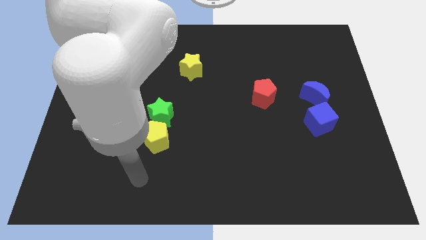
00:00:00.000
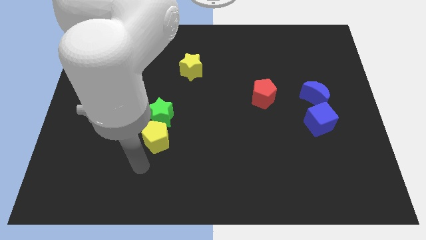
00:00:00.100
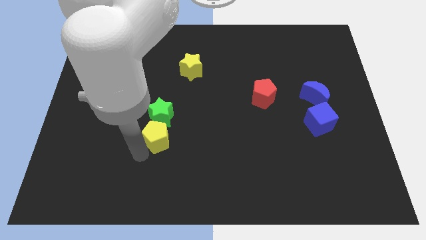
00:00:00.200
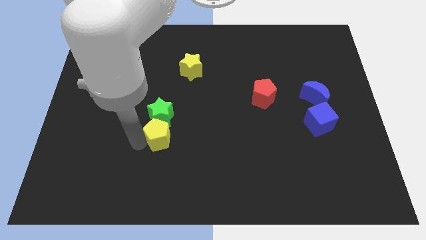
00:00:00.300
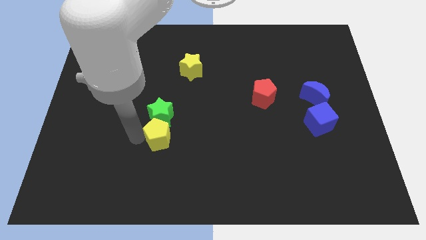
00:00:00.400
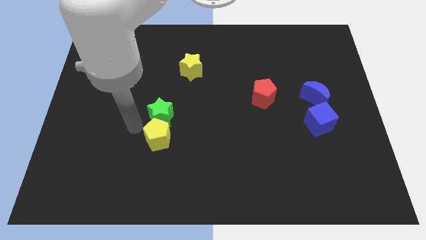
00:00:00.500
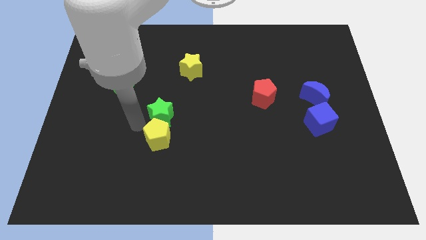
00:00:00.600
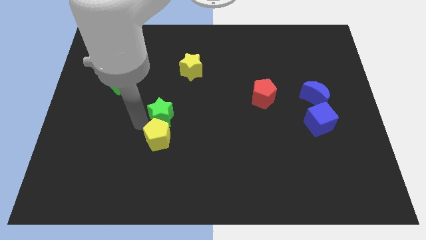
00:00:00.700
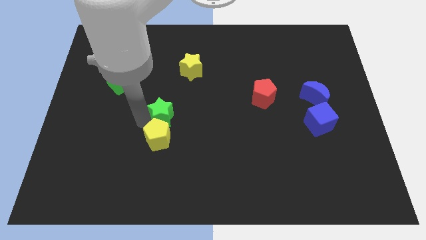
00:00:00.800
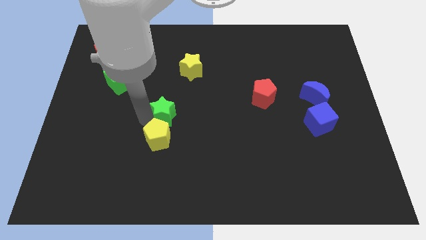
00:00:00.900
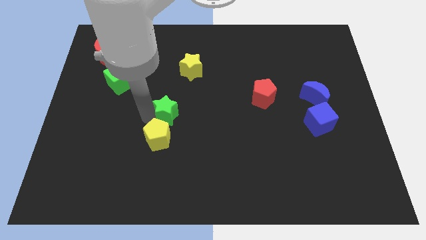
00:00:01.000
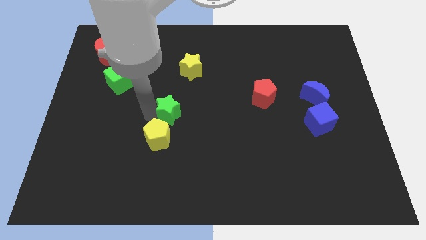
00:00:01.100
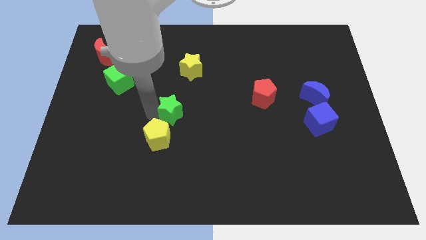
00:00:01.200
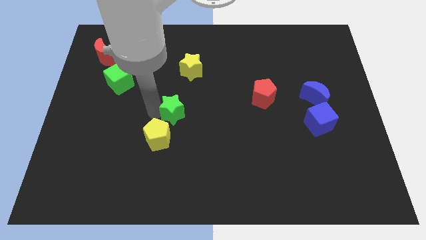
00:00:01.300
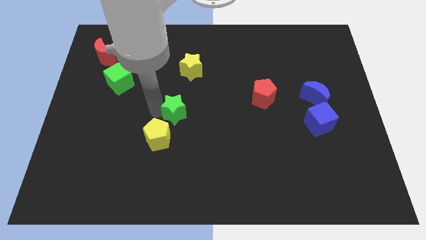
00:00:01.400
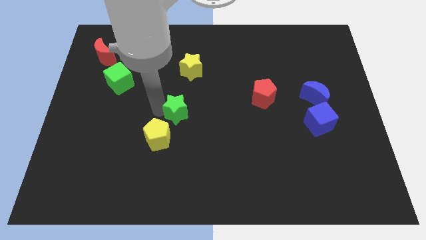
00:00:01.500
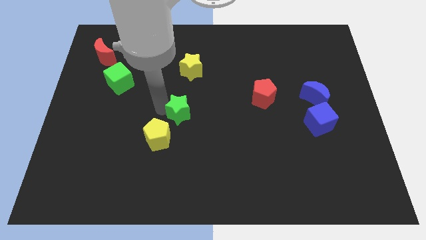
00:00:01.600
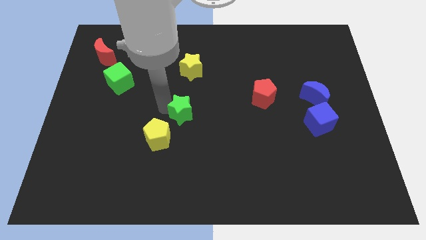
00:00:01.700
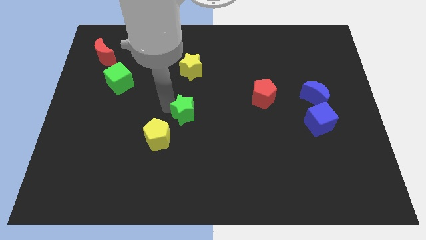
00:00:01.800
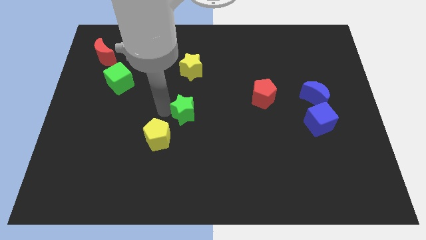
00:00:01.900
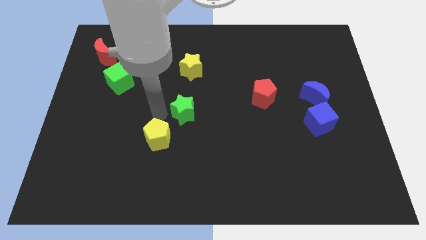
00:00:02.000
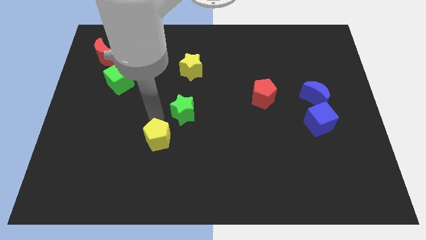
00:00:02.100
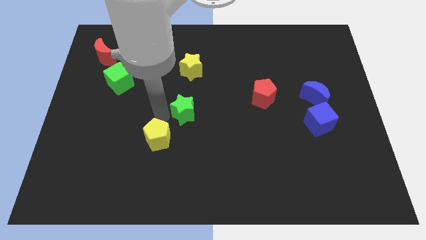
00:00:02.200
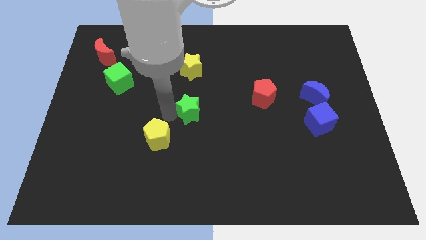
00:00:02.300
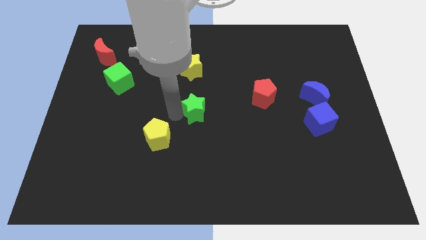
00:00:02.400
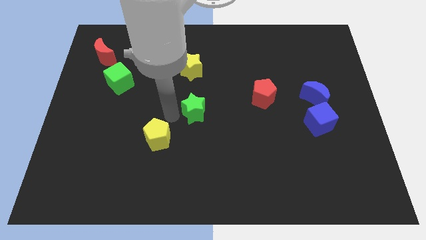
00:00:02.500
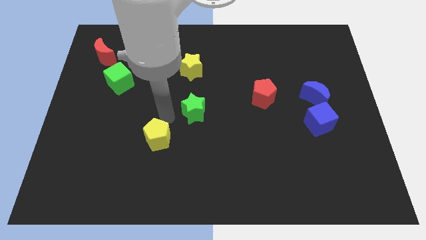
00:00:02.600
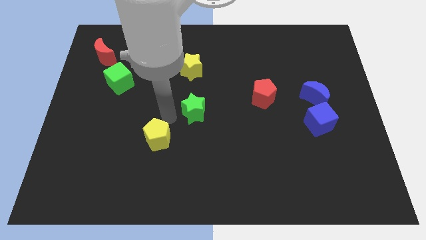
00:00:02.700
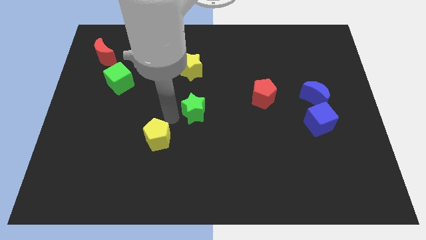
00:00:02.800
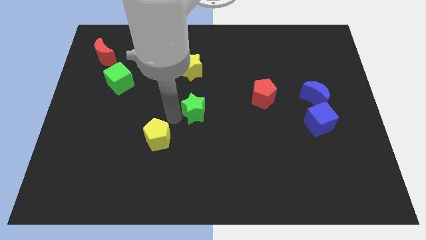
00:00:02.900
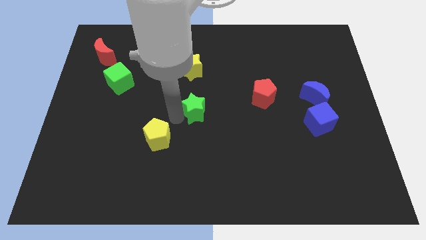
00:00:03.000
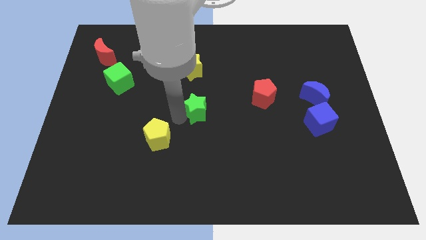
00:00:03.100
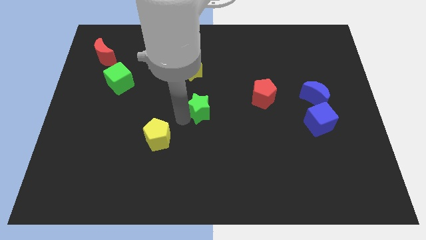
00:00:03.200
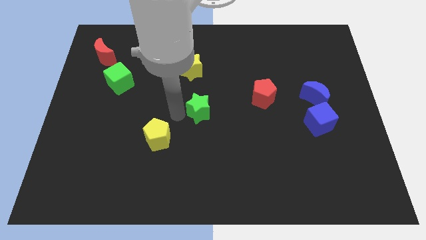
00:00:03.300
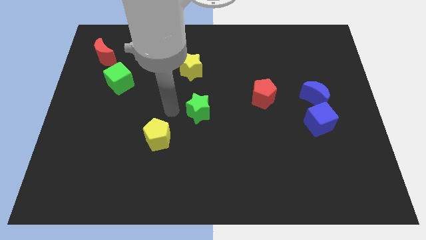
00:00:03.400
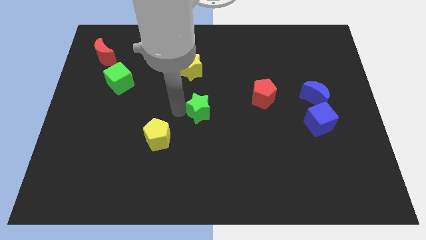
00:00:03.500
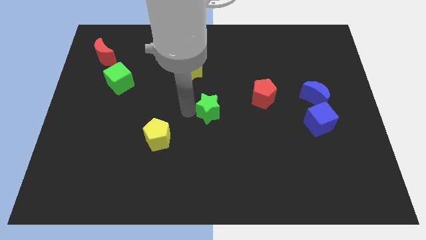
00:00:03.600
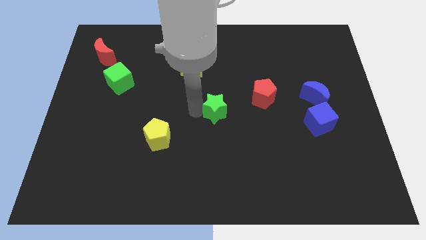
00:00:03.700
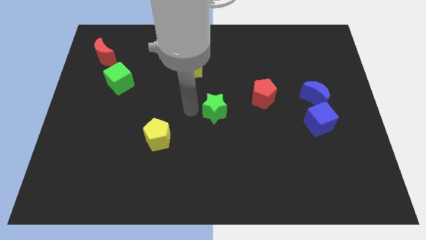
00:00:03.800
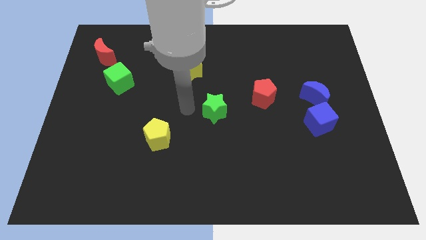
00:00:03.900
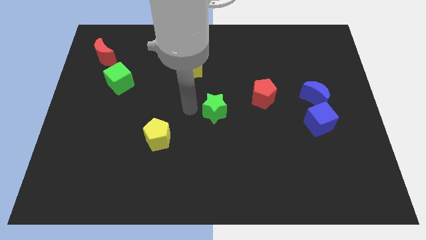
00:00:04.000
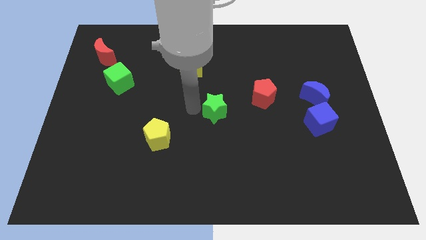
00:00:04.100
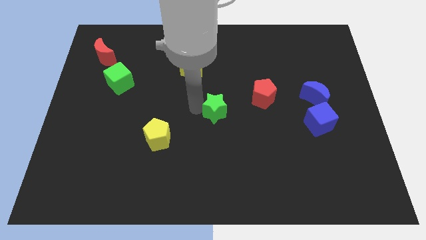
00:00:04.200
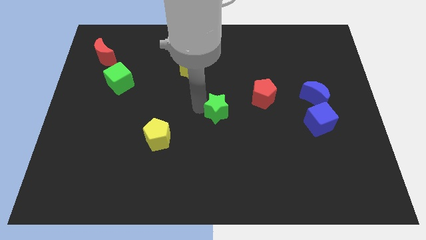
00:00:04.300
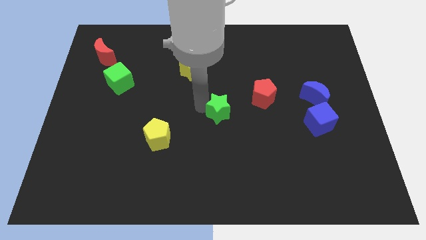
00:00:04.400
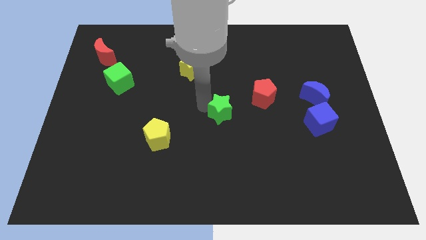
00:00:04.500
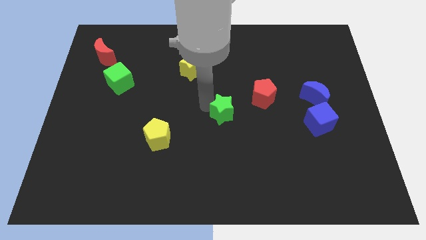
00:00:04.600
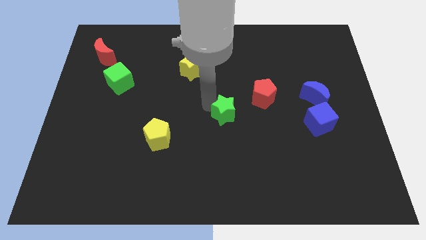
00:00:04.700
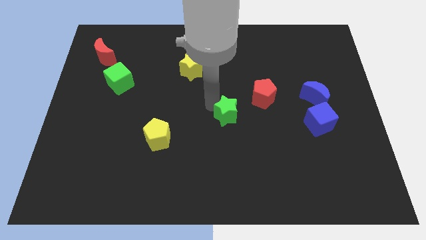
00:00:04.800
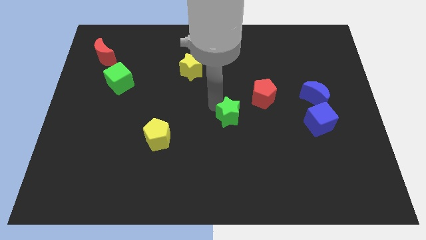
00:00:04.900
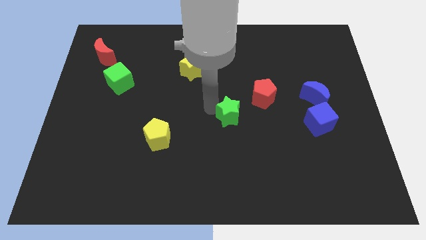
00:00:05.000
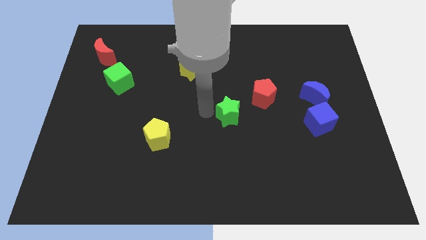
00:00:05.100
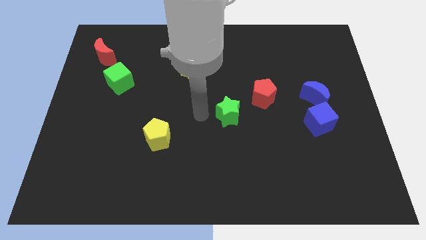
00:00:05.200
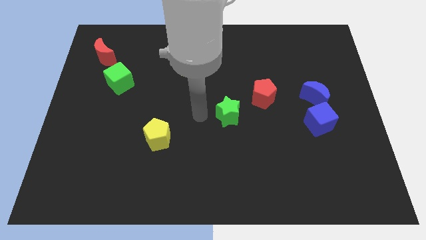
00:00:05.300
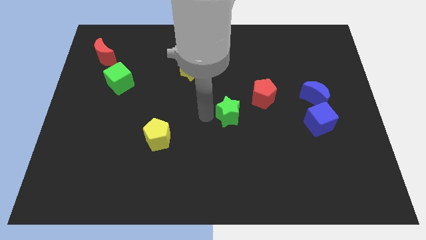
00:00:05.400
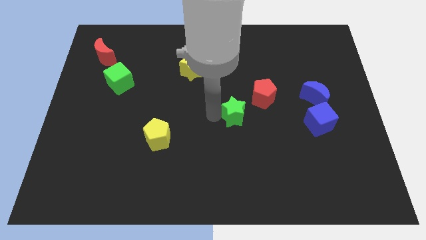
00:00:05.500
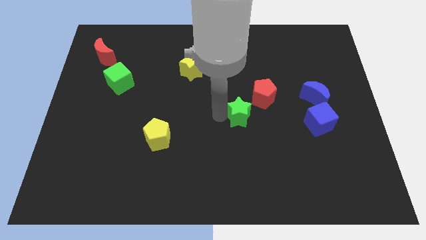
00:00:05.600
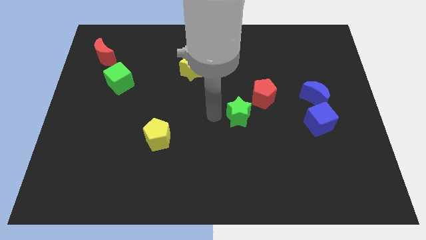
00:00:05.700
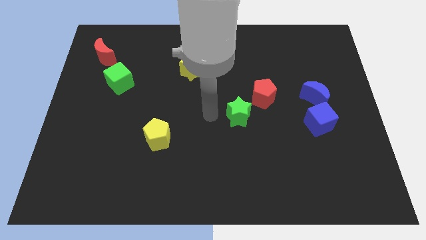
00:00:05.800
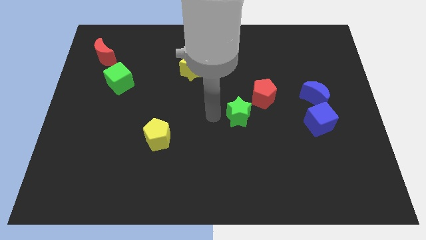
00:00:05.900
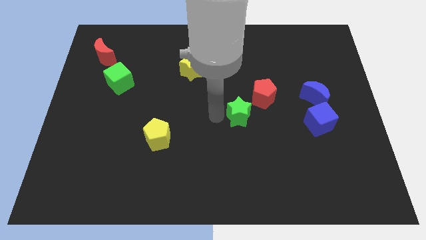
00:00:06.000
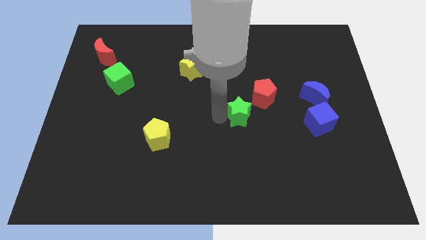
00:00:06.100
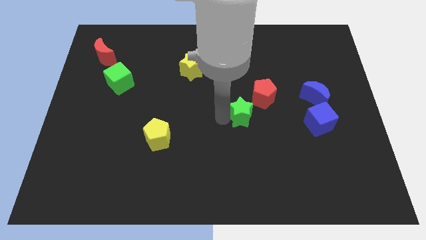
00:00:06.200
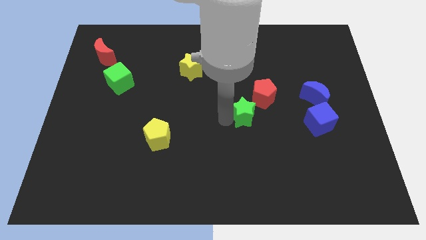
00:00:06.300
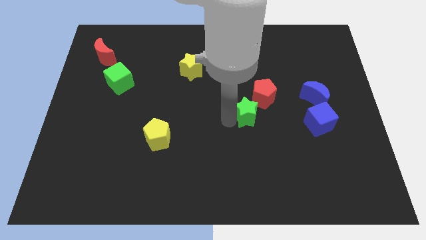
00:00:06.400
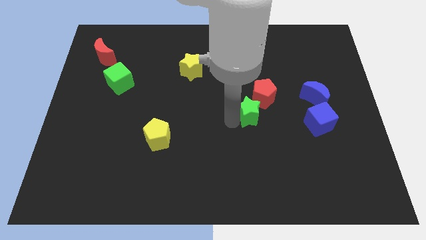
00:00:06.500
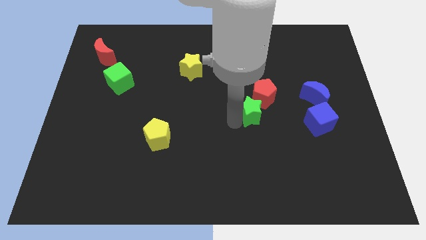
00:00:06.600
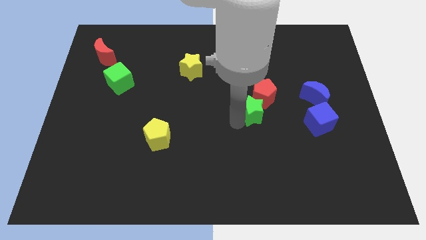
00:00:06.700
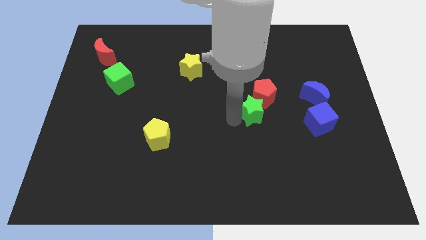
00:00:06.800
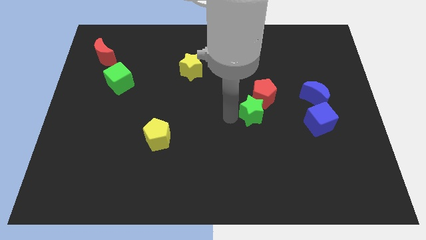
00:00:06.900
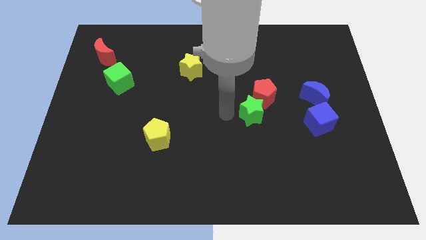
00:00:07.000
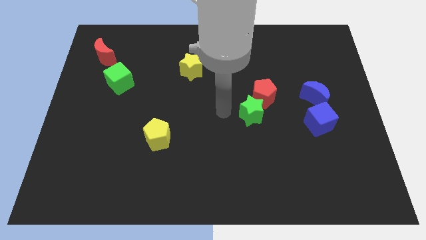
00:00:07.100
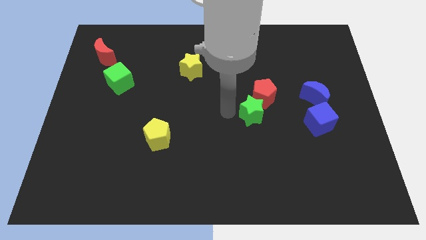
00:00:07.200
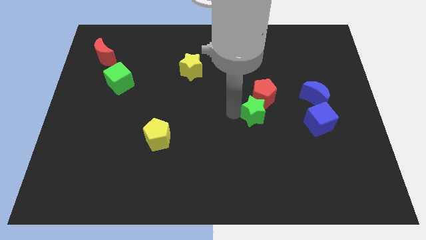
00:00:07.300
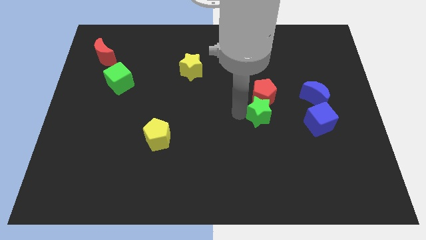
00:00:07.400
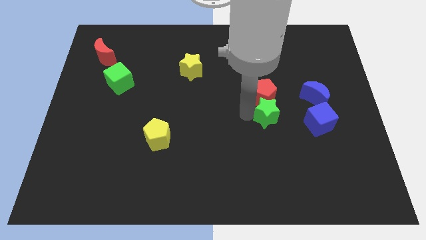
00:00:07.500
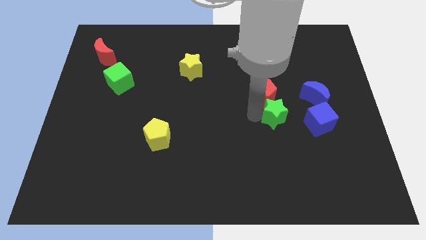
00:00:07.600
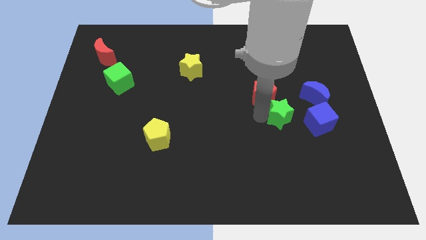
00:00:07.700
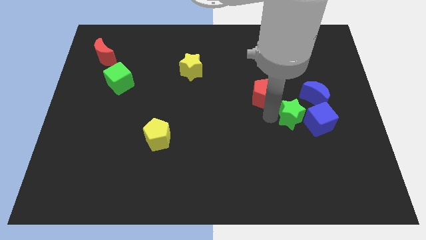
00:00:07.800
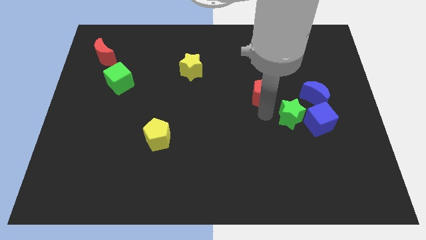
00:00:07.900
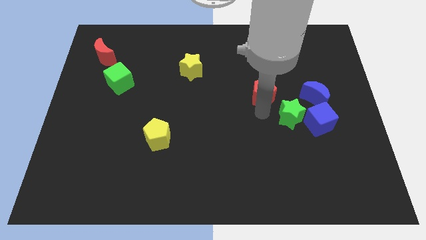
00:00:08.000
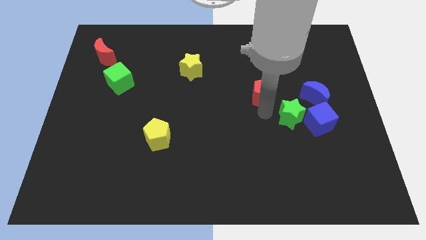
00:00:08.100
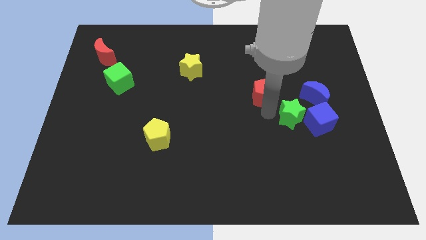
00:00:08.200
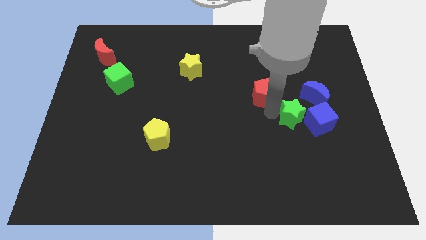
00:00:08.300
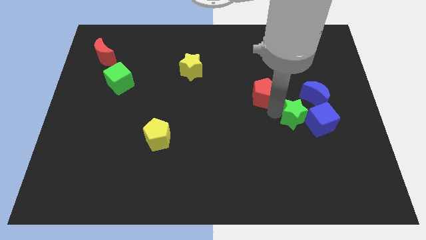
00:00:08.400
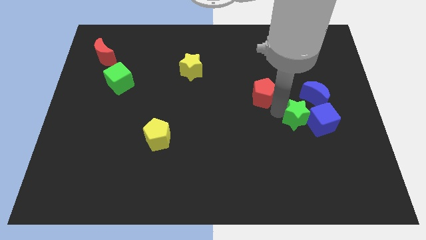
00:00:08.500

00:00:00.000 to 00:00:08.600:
push the green star to the blue cube
